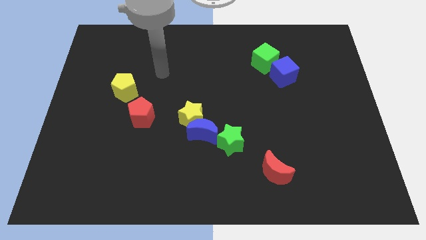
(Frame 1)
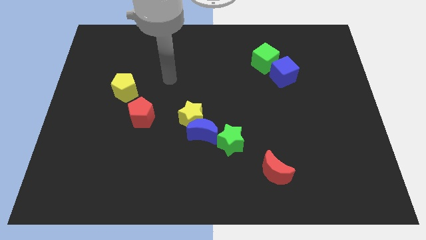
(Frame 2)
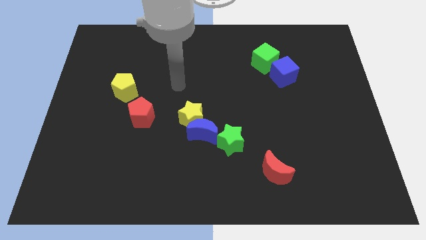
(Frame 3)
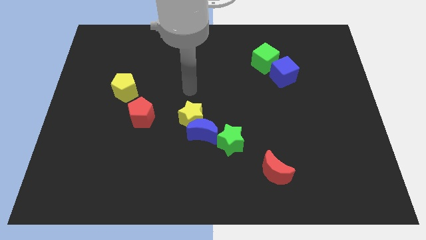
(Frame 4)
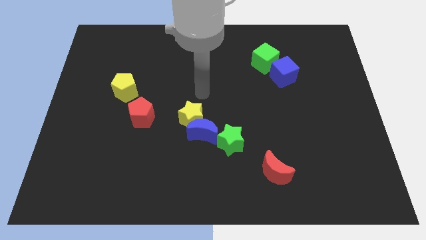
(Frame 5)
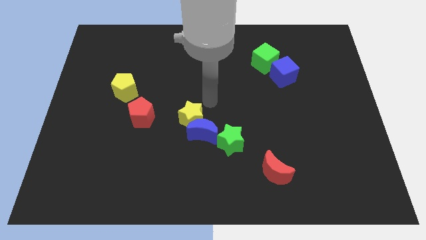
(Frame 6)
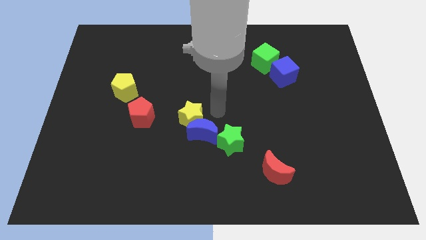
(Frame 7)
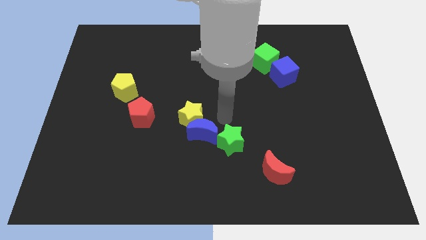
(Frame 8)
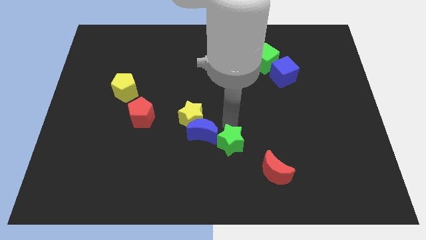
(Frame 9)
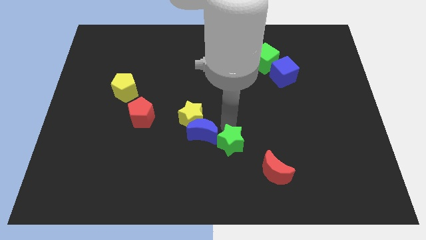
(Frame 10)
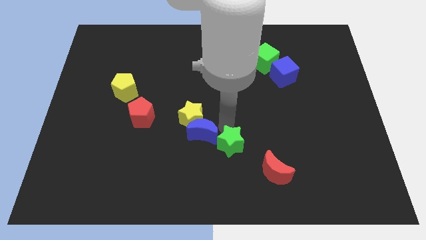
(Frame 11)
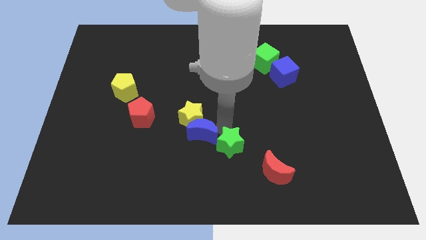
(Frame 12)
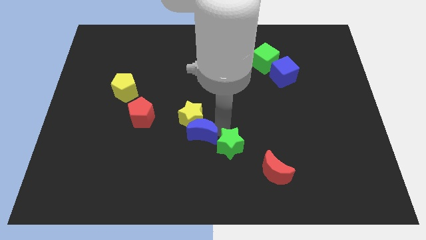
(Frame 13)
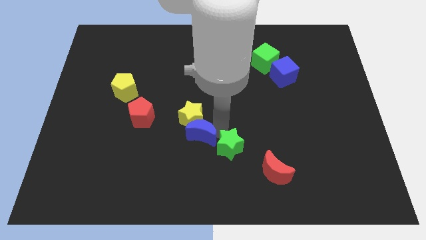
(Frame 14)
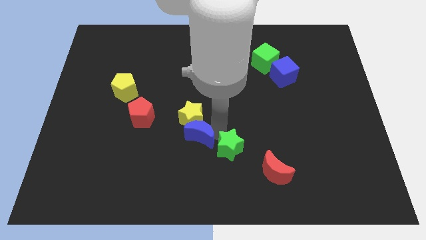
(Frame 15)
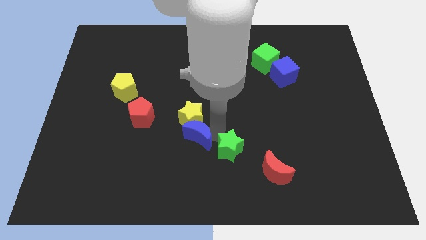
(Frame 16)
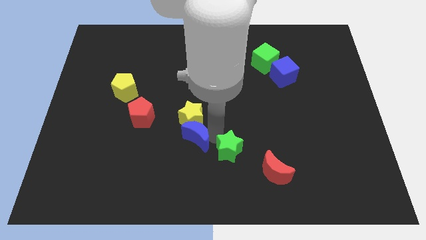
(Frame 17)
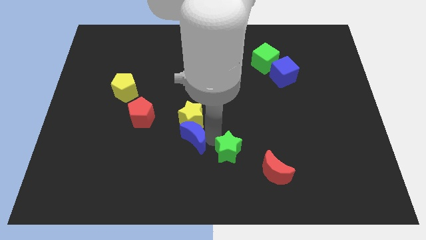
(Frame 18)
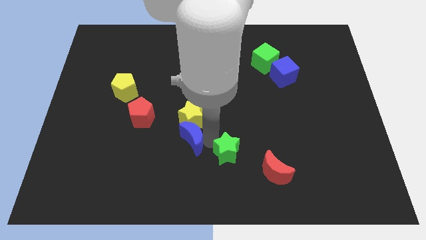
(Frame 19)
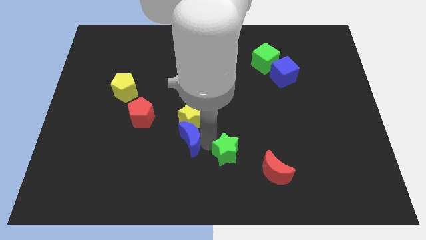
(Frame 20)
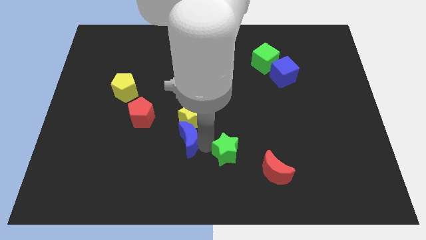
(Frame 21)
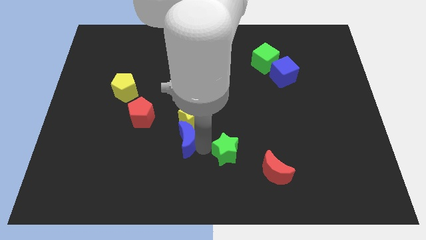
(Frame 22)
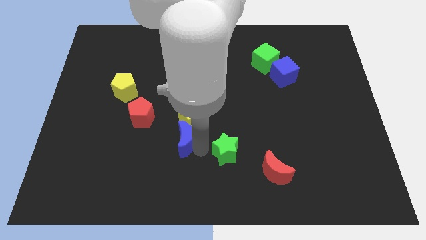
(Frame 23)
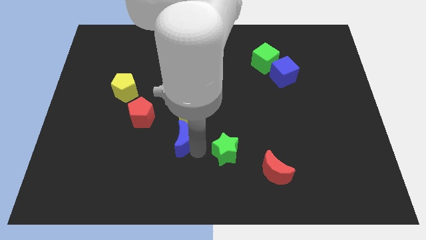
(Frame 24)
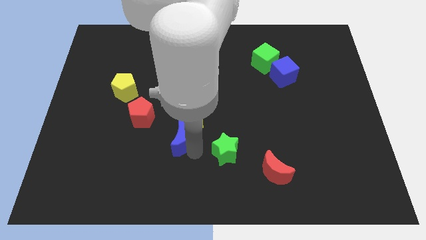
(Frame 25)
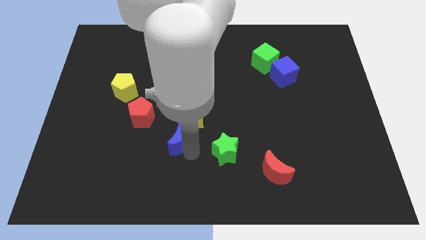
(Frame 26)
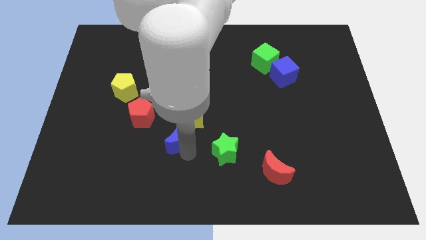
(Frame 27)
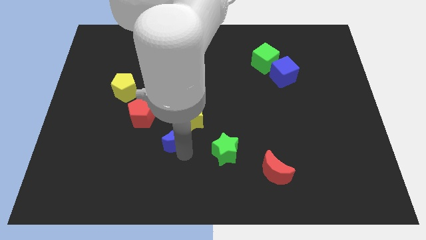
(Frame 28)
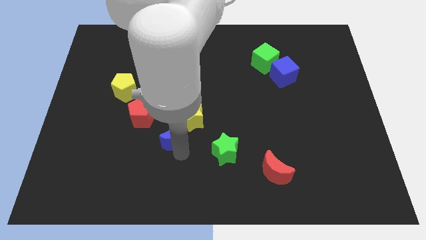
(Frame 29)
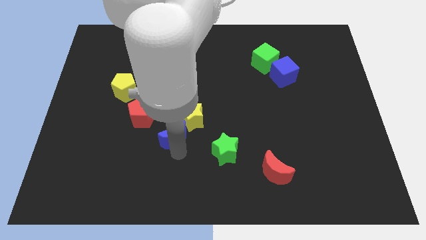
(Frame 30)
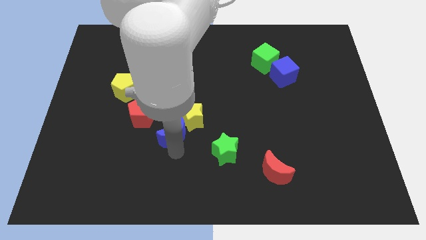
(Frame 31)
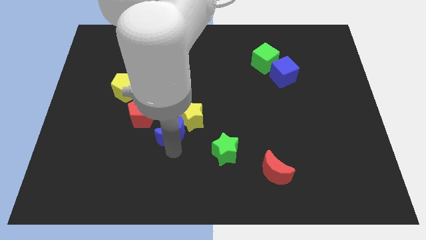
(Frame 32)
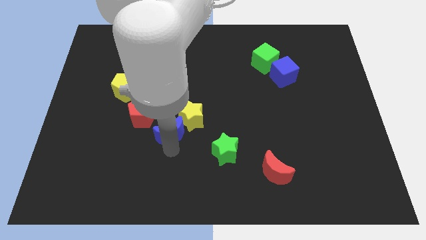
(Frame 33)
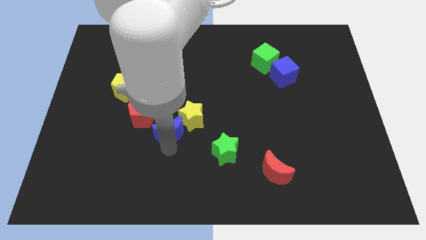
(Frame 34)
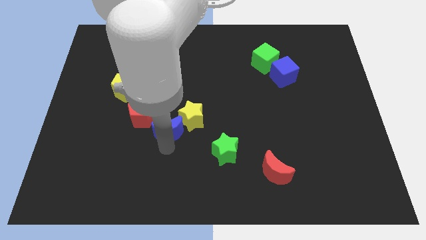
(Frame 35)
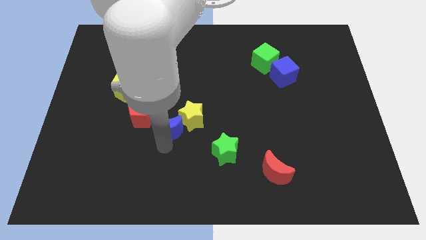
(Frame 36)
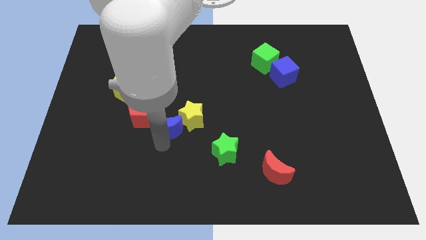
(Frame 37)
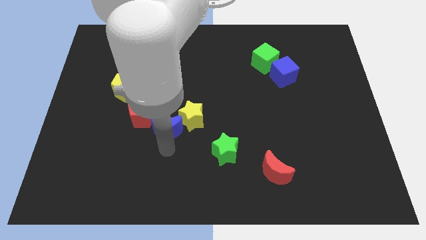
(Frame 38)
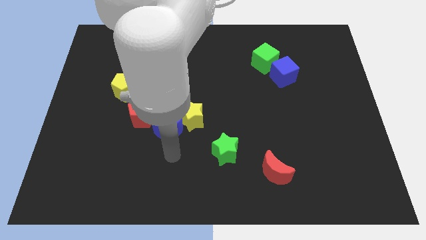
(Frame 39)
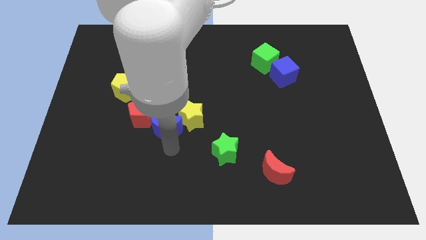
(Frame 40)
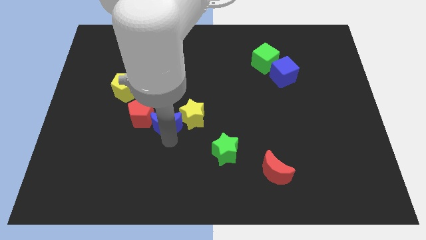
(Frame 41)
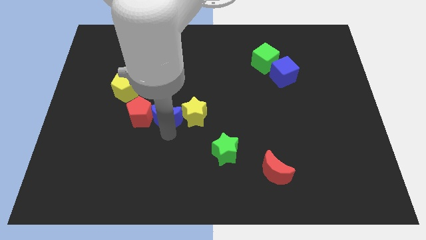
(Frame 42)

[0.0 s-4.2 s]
slightly push the blue moon up and to the left

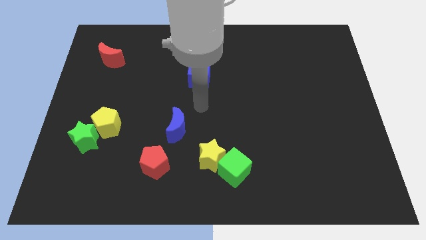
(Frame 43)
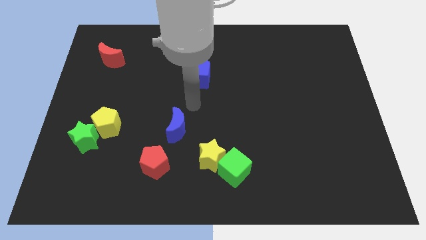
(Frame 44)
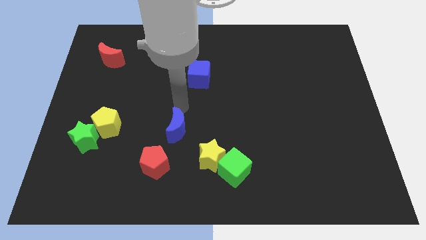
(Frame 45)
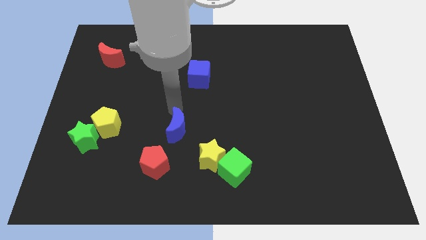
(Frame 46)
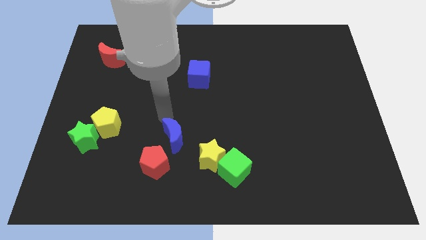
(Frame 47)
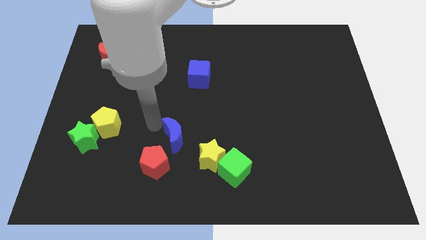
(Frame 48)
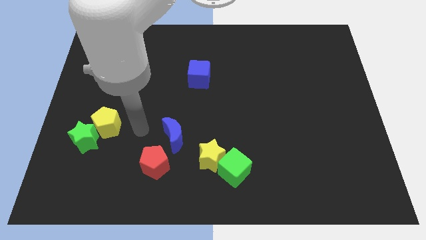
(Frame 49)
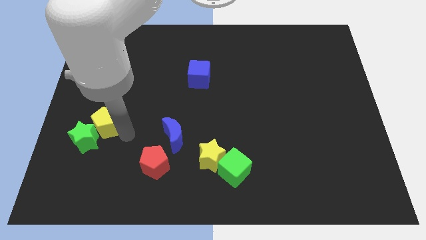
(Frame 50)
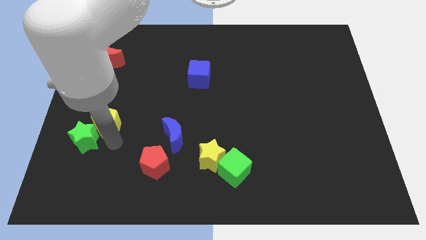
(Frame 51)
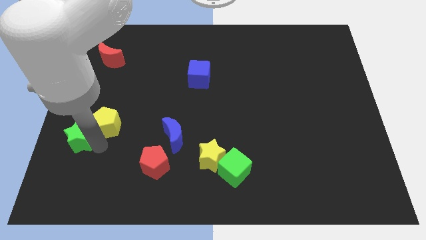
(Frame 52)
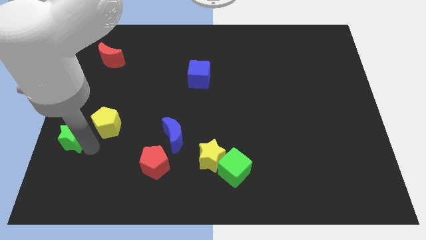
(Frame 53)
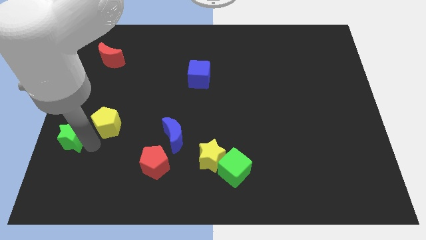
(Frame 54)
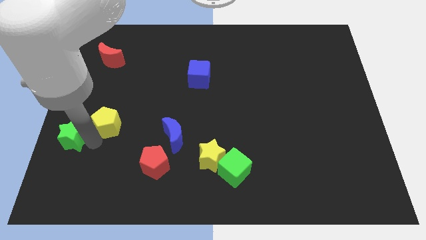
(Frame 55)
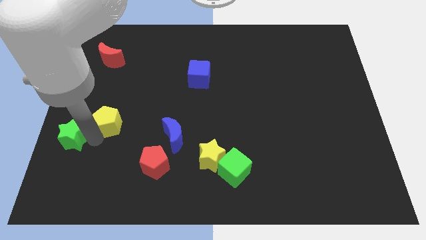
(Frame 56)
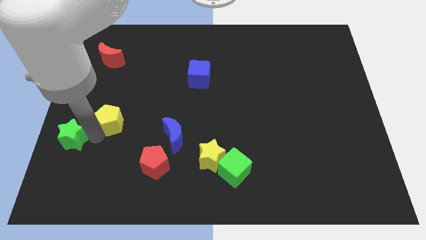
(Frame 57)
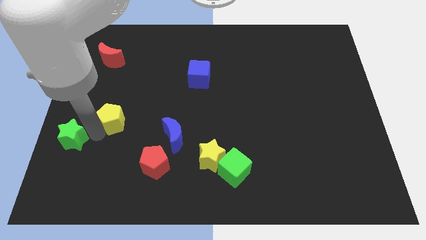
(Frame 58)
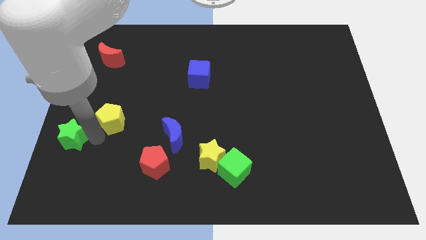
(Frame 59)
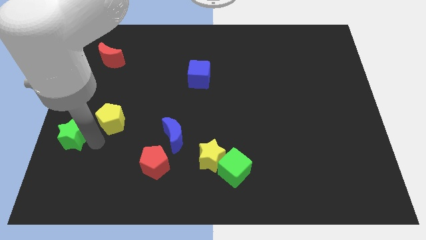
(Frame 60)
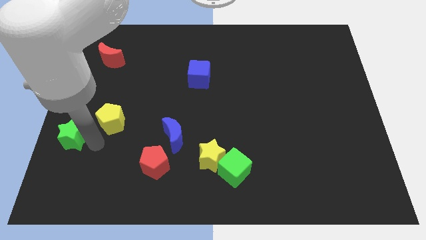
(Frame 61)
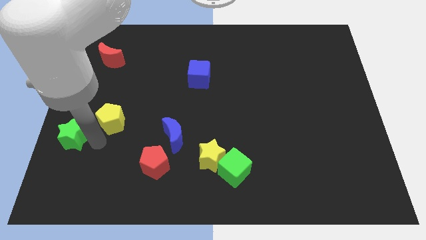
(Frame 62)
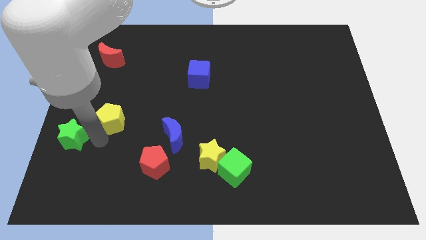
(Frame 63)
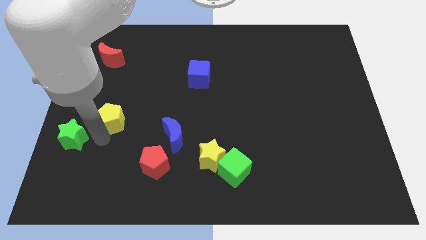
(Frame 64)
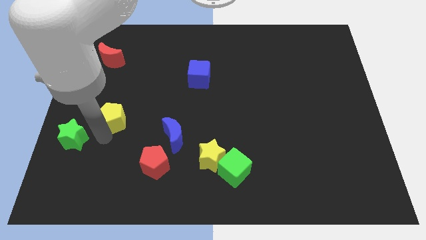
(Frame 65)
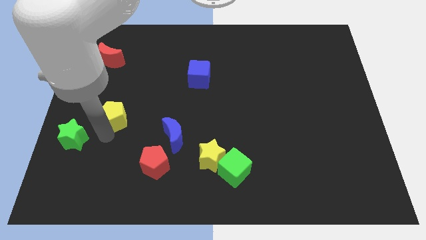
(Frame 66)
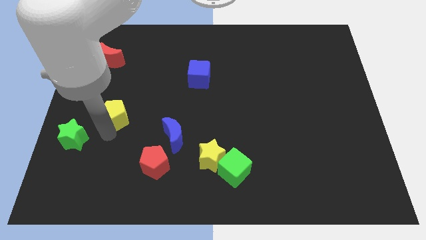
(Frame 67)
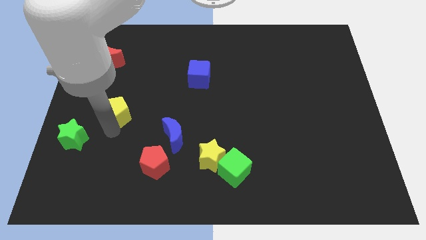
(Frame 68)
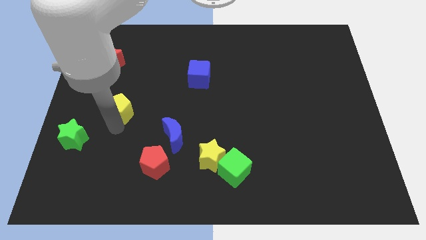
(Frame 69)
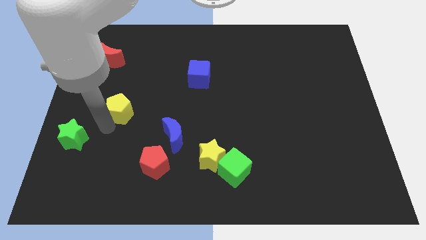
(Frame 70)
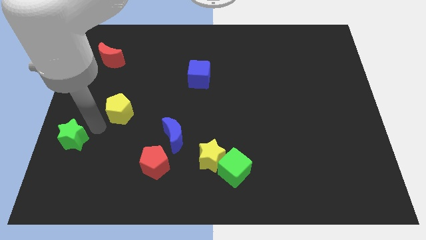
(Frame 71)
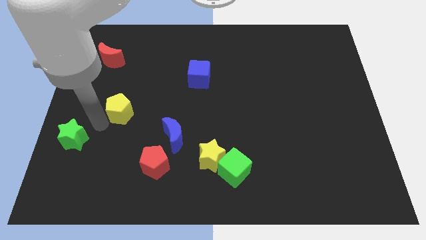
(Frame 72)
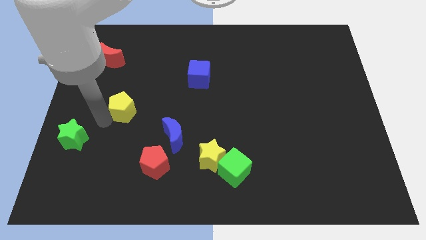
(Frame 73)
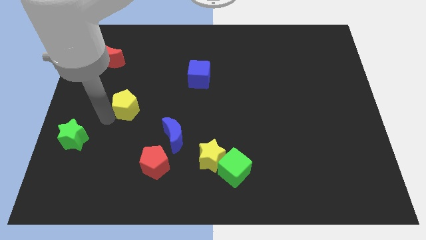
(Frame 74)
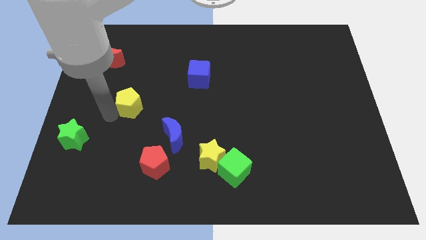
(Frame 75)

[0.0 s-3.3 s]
push the yellow pentagon diagonally up and to the right somewhat

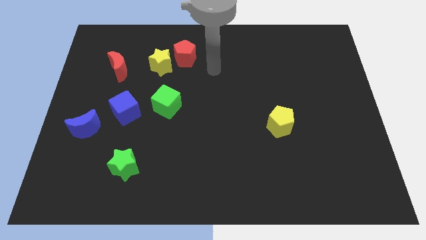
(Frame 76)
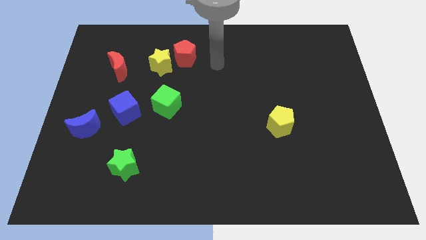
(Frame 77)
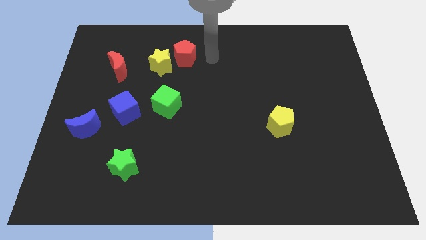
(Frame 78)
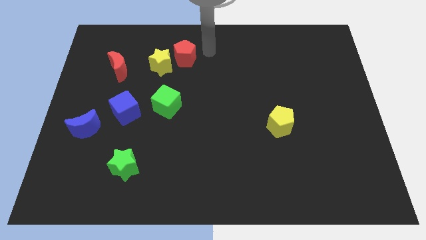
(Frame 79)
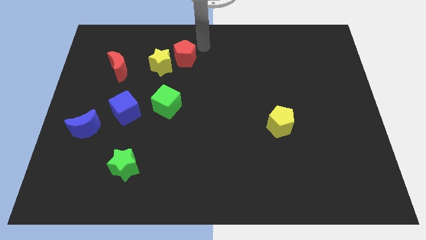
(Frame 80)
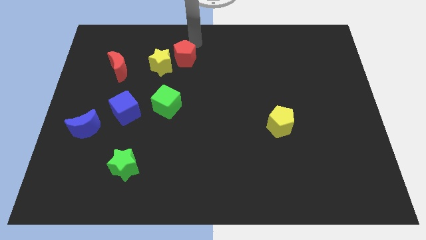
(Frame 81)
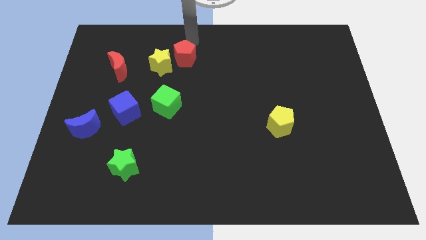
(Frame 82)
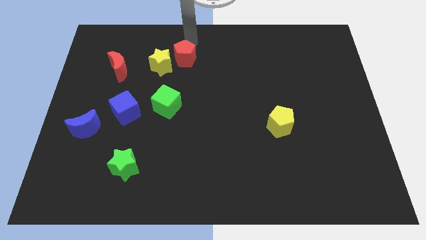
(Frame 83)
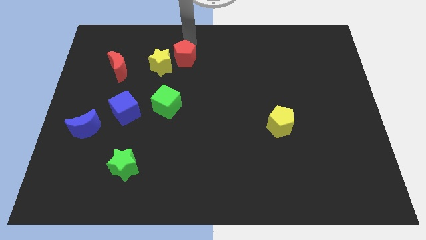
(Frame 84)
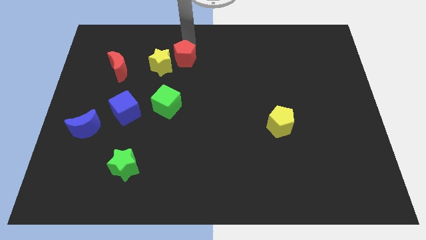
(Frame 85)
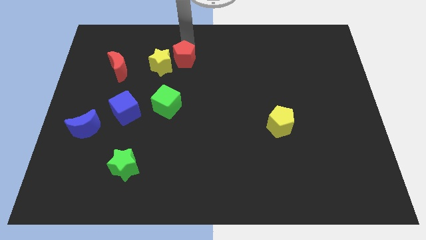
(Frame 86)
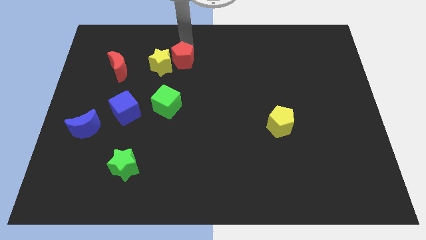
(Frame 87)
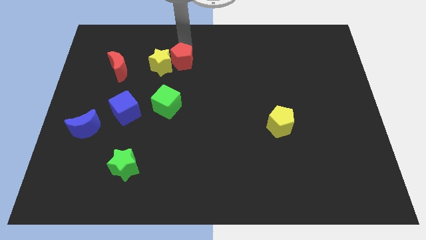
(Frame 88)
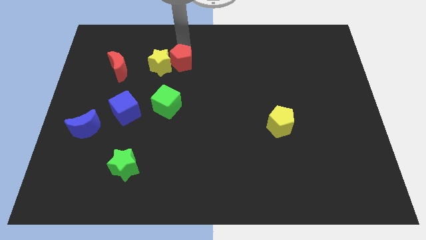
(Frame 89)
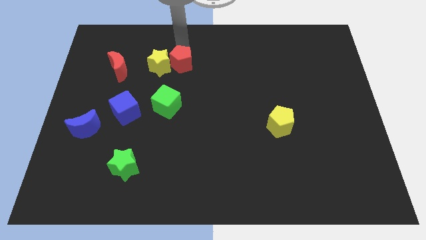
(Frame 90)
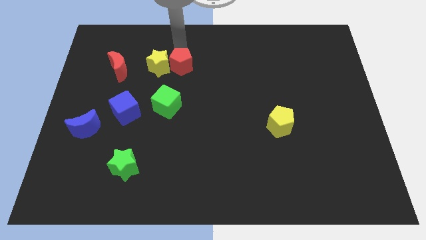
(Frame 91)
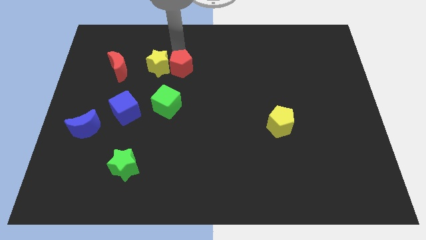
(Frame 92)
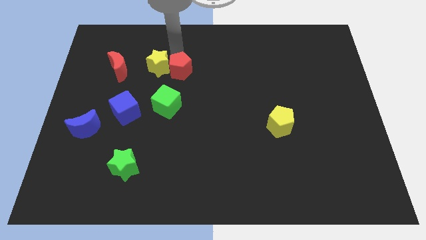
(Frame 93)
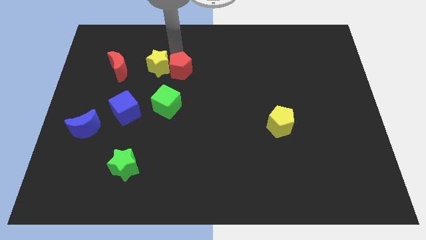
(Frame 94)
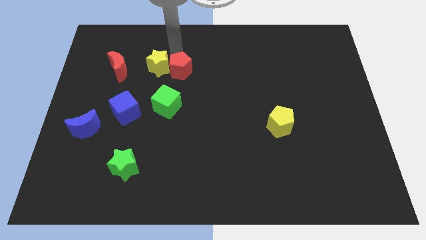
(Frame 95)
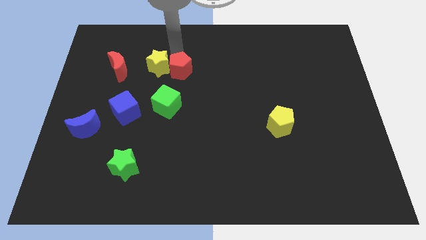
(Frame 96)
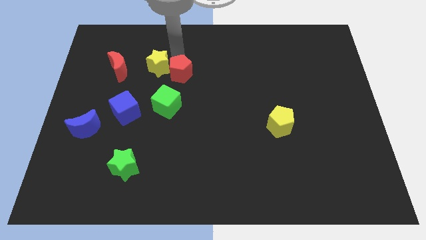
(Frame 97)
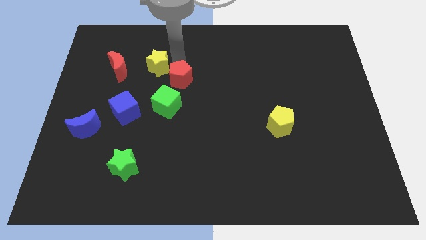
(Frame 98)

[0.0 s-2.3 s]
slightly move the red pentagon downwards
